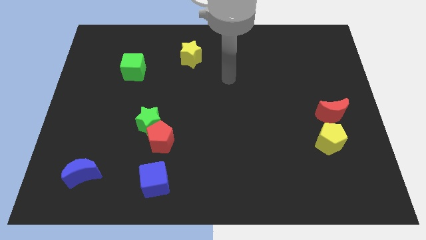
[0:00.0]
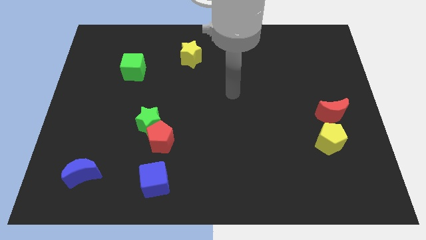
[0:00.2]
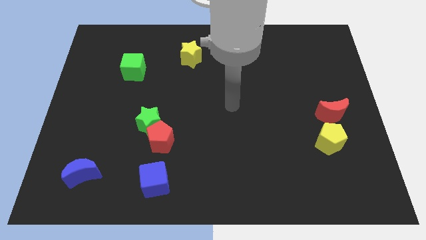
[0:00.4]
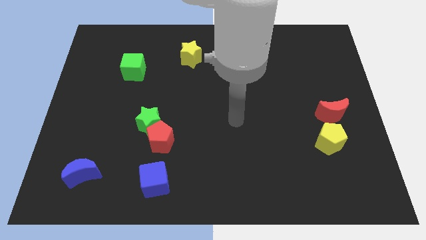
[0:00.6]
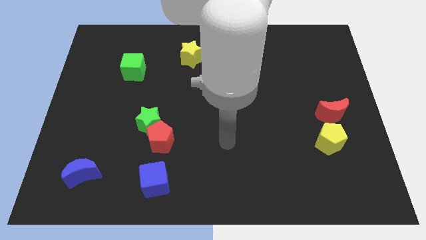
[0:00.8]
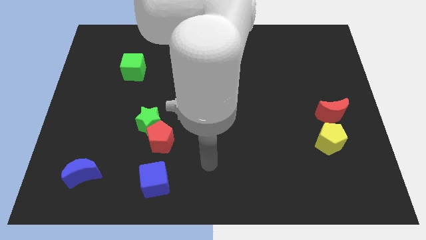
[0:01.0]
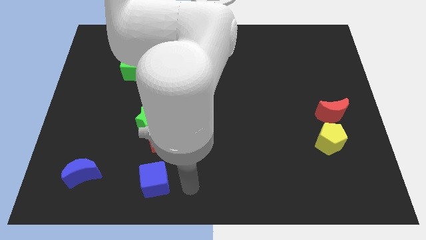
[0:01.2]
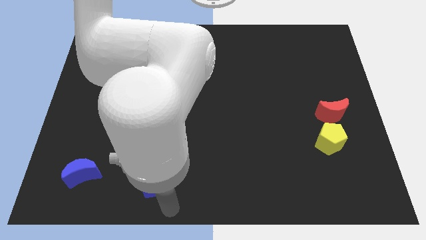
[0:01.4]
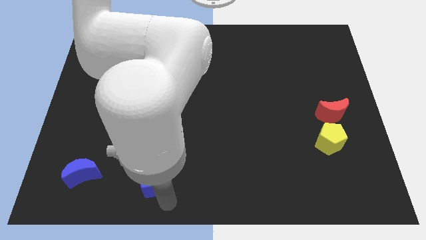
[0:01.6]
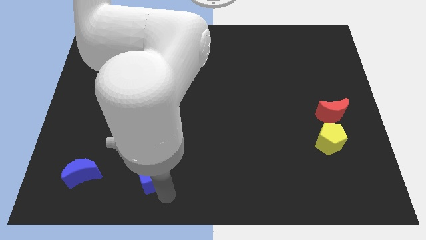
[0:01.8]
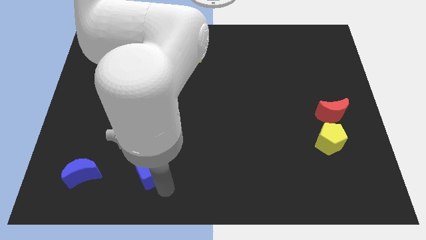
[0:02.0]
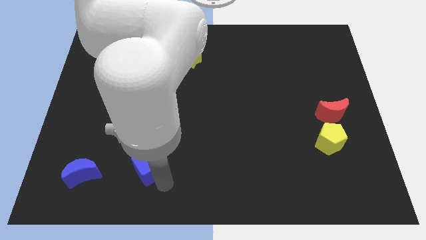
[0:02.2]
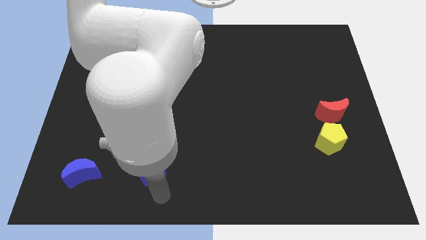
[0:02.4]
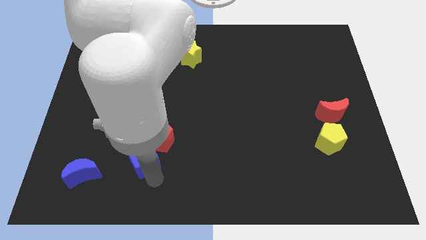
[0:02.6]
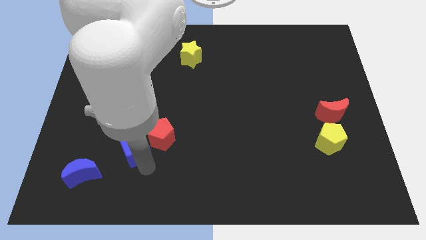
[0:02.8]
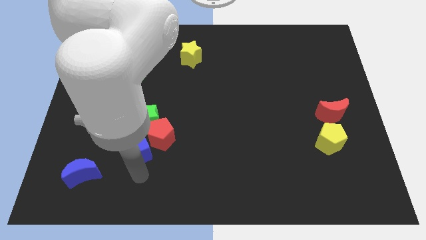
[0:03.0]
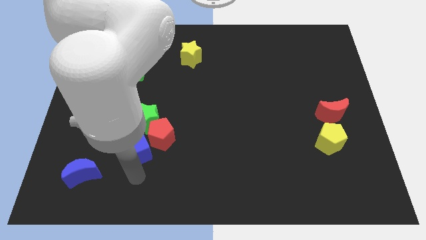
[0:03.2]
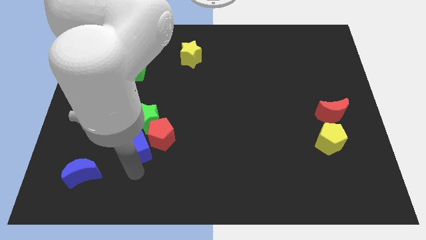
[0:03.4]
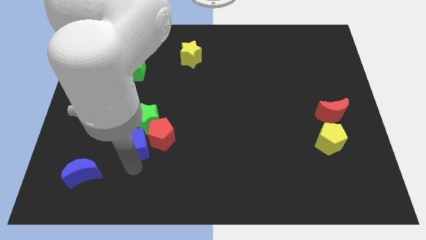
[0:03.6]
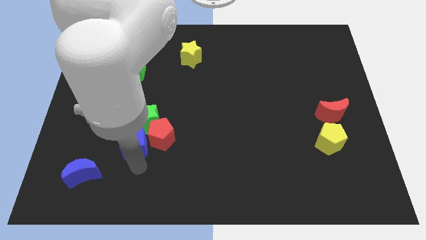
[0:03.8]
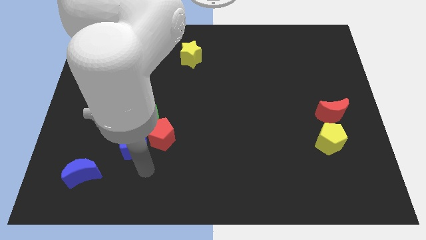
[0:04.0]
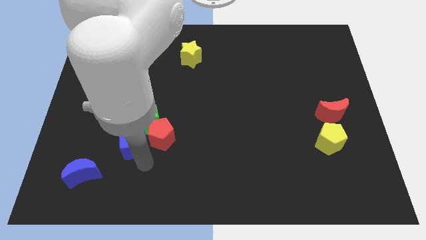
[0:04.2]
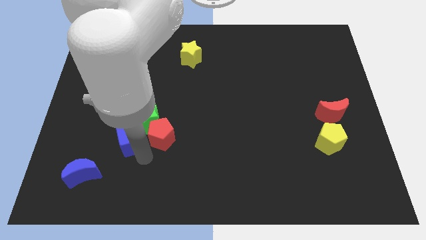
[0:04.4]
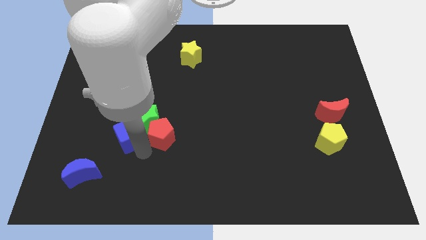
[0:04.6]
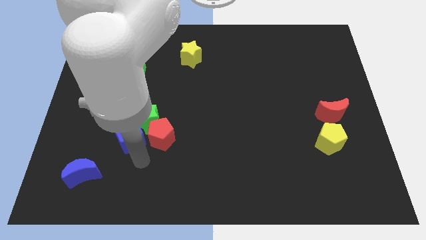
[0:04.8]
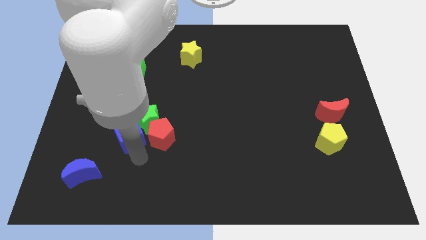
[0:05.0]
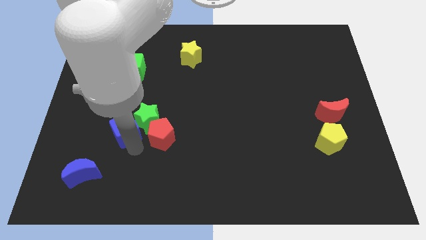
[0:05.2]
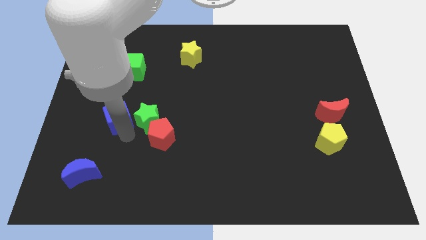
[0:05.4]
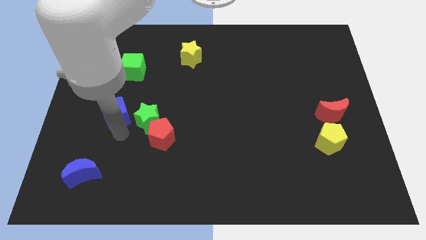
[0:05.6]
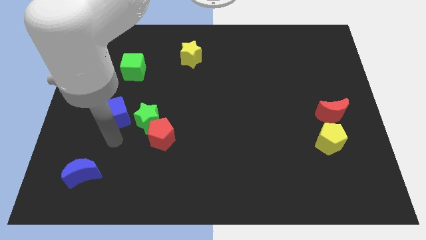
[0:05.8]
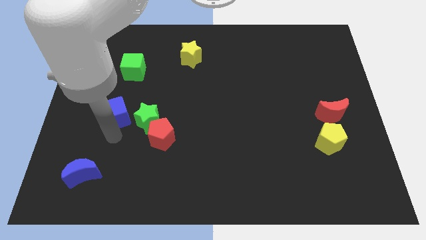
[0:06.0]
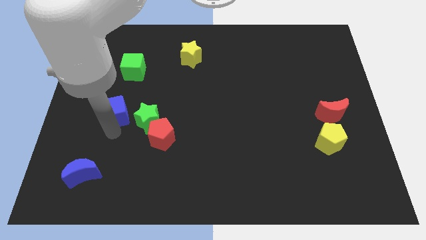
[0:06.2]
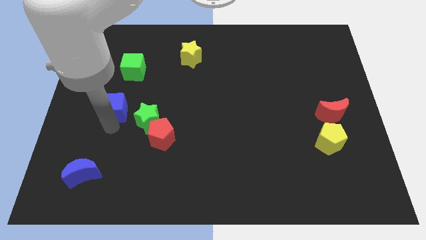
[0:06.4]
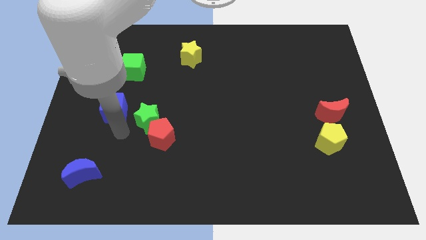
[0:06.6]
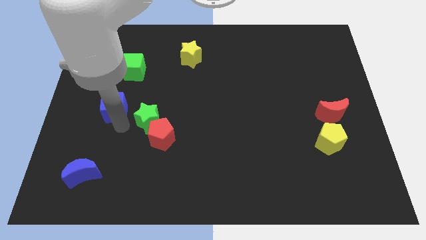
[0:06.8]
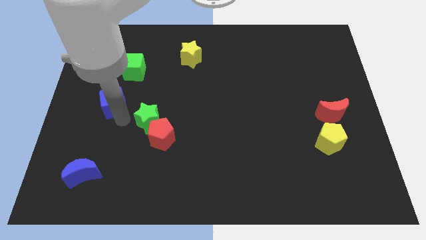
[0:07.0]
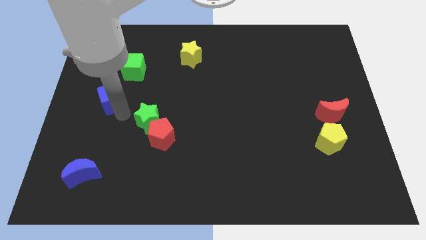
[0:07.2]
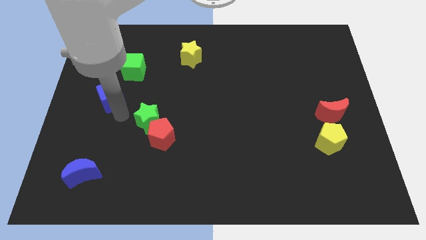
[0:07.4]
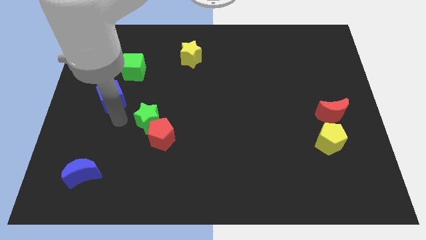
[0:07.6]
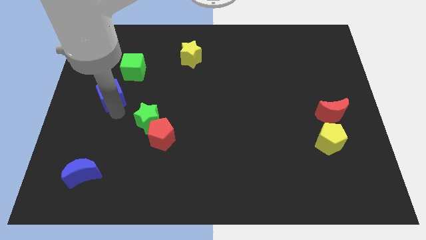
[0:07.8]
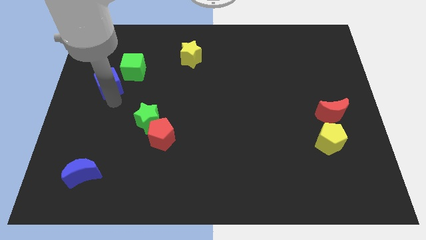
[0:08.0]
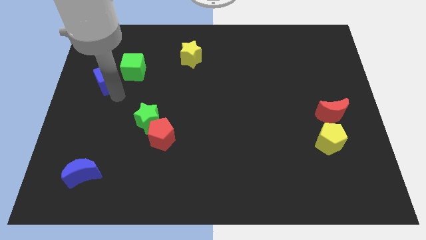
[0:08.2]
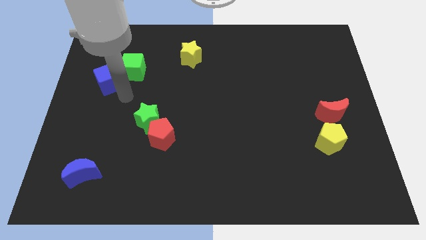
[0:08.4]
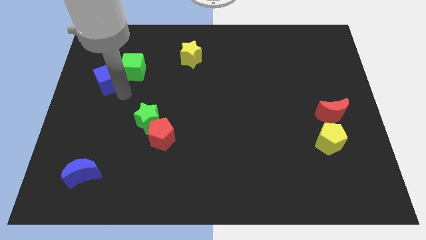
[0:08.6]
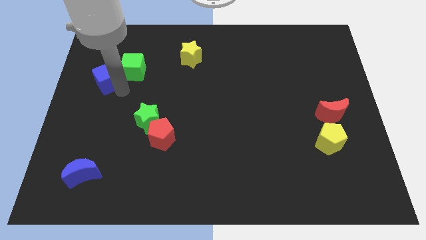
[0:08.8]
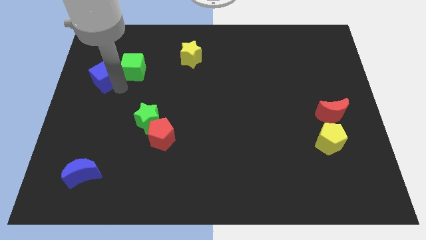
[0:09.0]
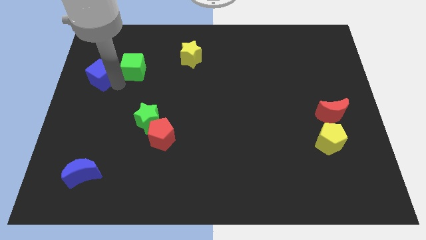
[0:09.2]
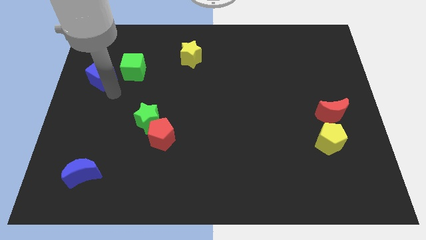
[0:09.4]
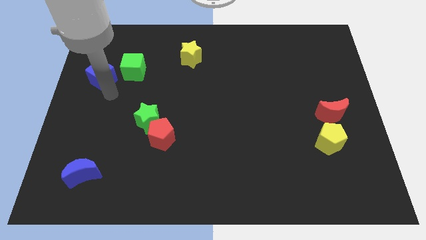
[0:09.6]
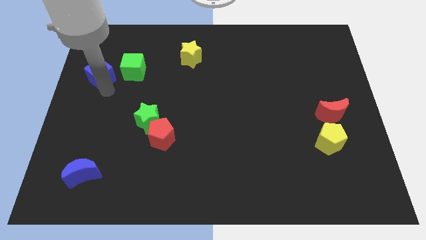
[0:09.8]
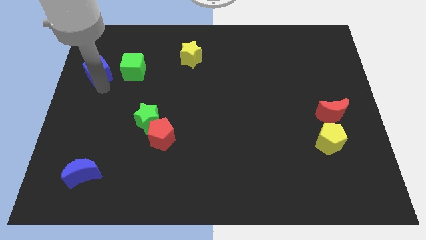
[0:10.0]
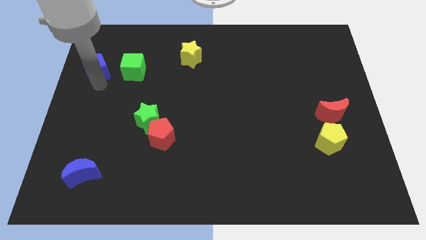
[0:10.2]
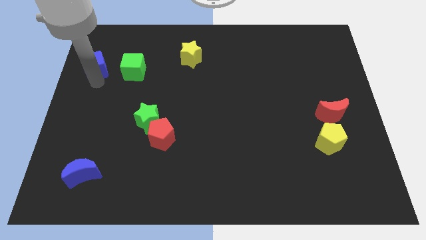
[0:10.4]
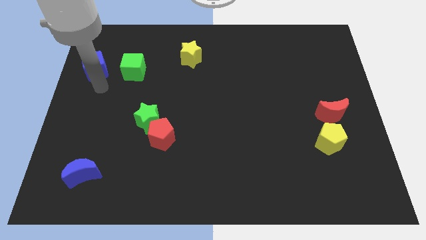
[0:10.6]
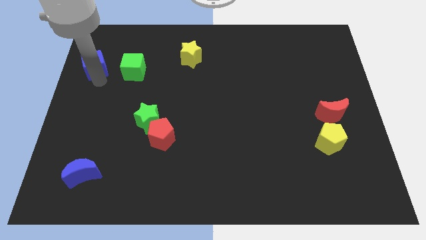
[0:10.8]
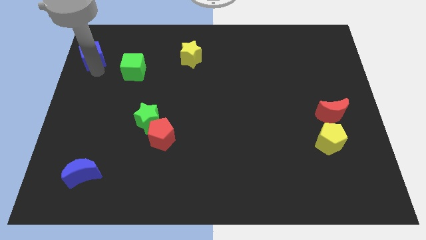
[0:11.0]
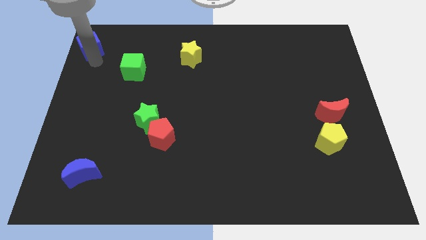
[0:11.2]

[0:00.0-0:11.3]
move the blue cube to the top left

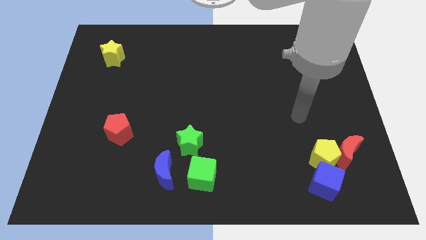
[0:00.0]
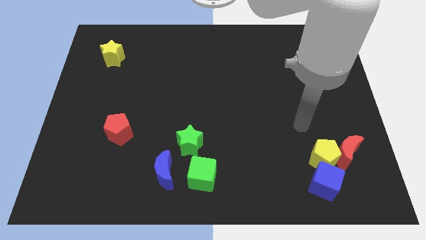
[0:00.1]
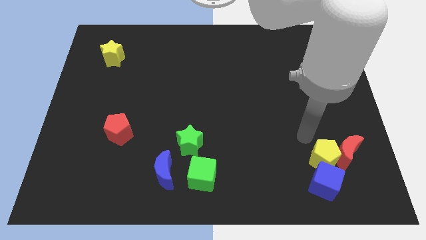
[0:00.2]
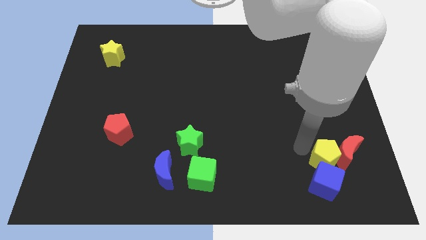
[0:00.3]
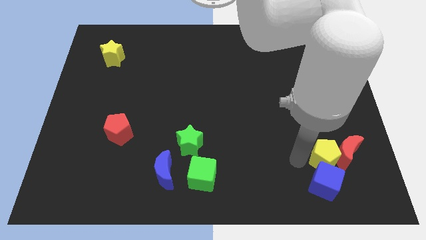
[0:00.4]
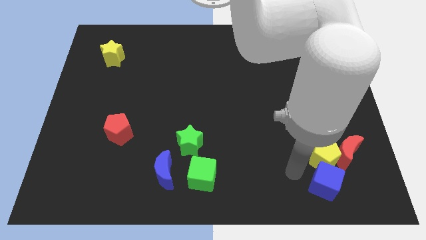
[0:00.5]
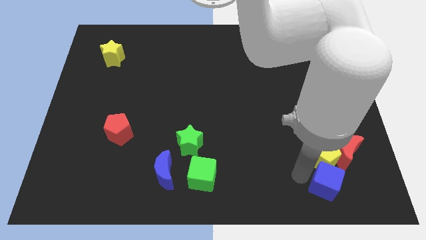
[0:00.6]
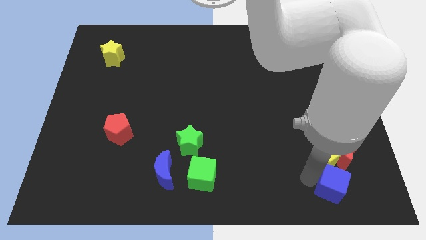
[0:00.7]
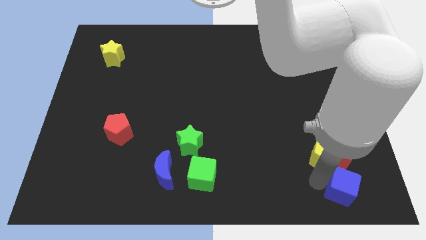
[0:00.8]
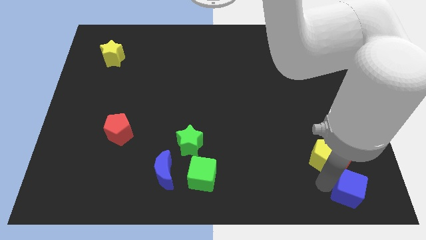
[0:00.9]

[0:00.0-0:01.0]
move the blue cube to the lower right corner

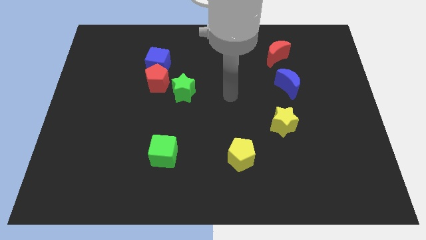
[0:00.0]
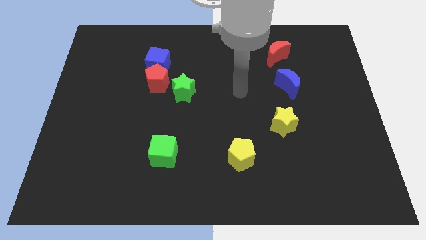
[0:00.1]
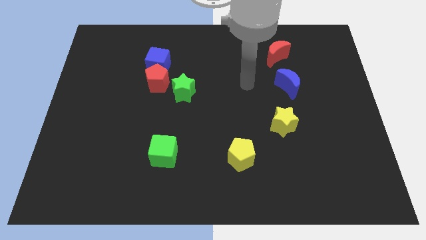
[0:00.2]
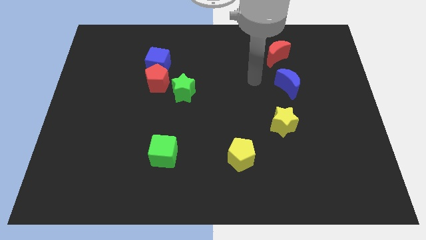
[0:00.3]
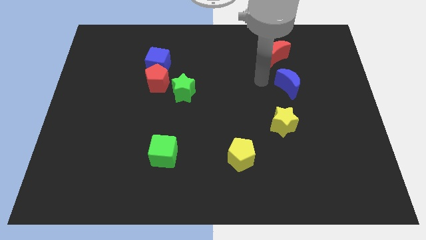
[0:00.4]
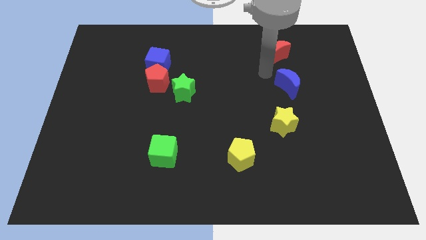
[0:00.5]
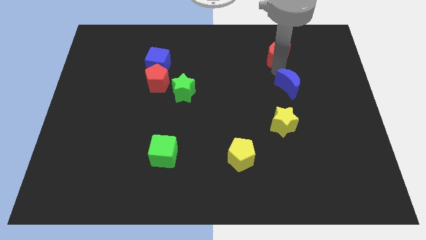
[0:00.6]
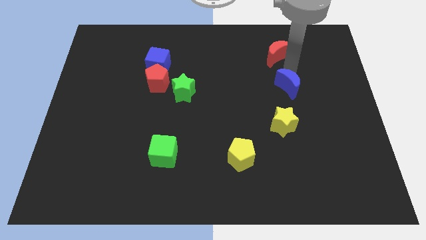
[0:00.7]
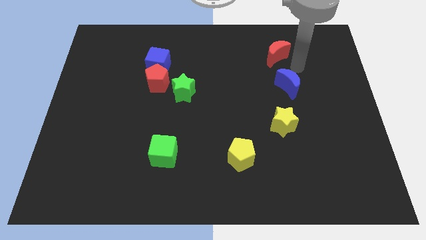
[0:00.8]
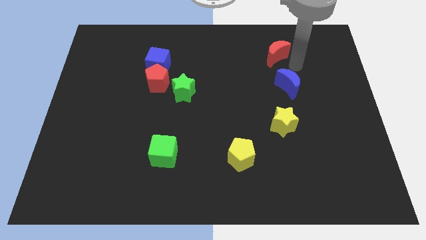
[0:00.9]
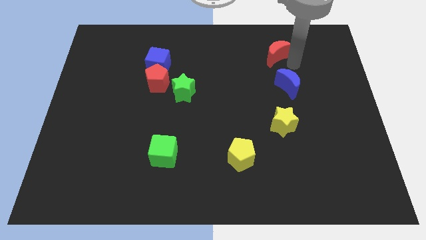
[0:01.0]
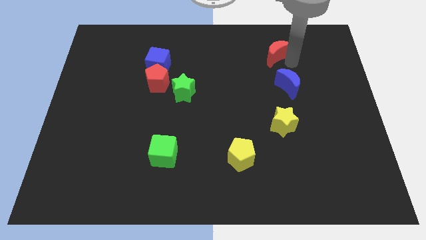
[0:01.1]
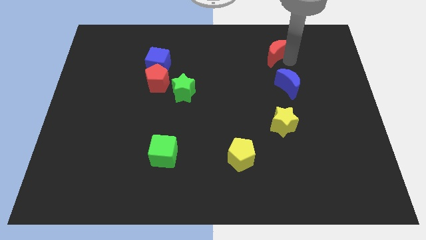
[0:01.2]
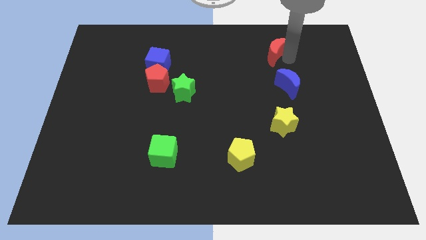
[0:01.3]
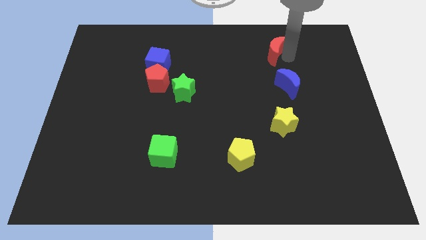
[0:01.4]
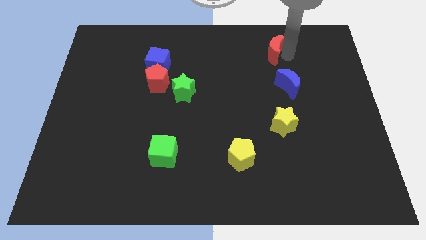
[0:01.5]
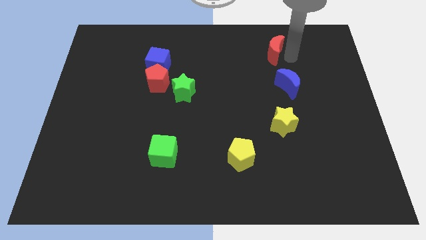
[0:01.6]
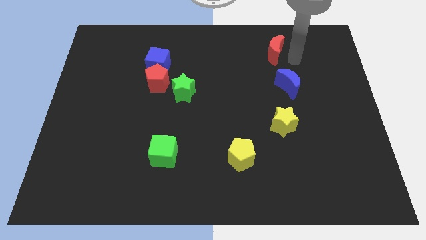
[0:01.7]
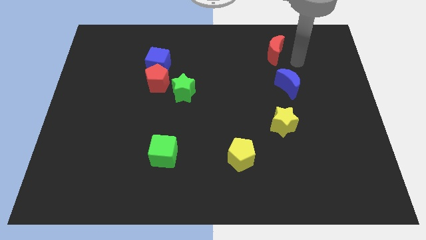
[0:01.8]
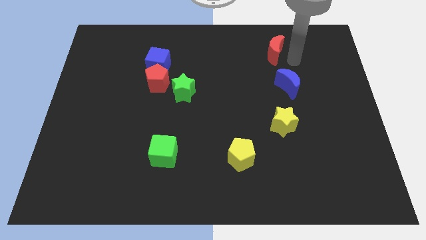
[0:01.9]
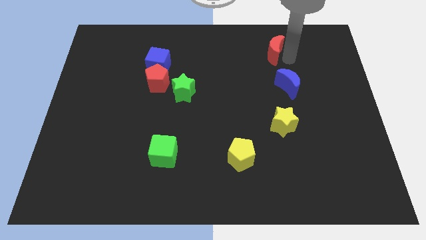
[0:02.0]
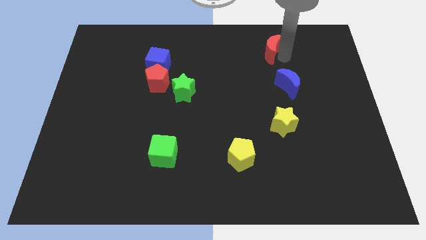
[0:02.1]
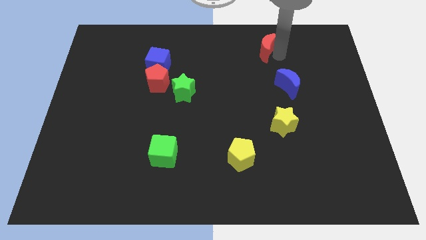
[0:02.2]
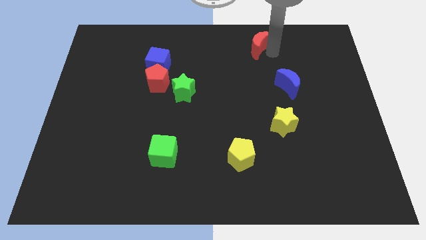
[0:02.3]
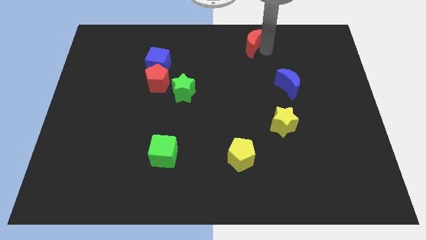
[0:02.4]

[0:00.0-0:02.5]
push the red moon to the towards your base
